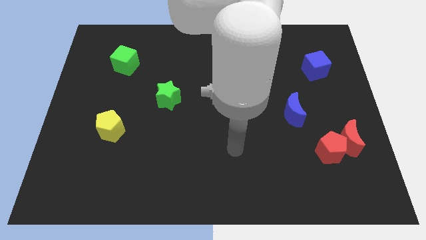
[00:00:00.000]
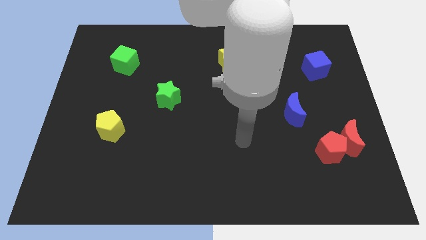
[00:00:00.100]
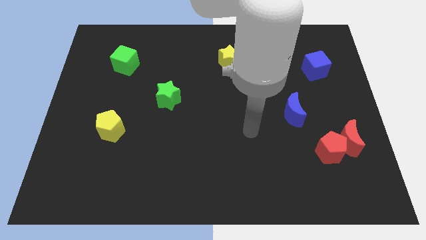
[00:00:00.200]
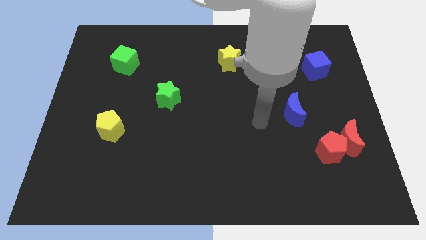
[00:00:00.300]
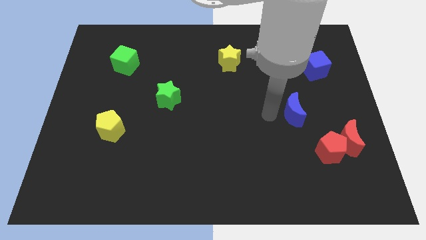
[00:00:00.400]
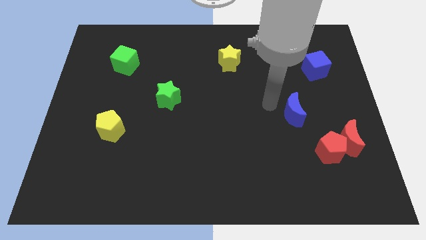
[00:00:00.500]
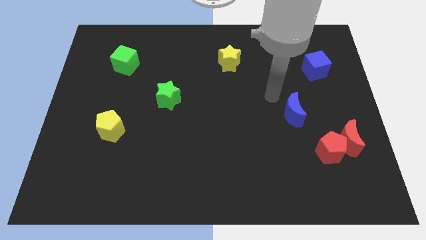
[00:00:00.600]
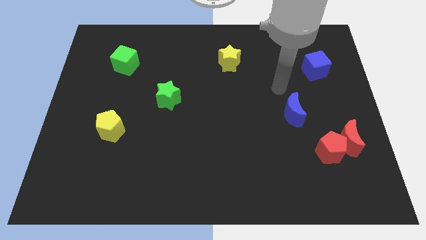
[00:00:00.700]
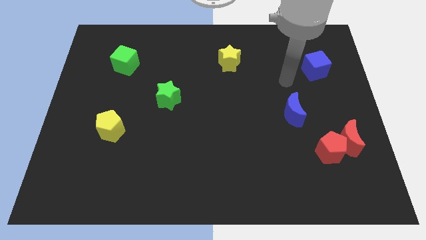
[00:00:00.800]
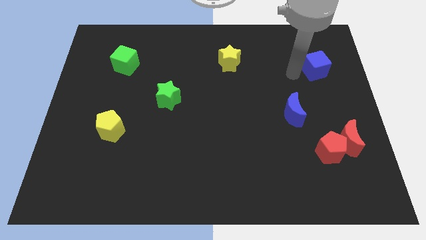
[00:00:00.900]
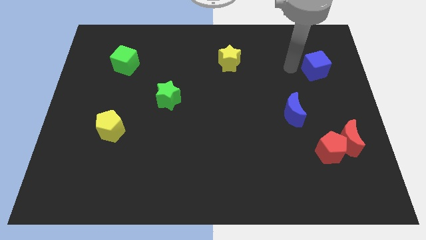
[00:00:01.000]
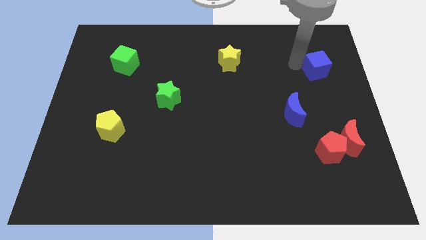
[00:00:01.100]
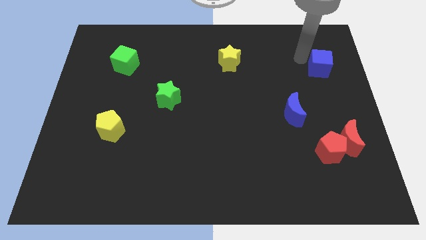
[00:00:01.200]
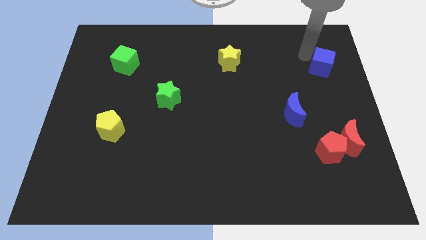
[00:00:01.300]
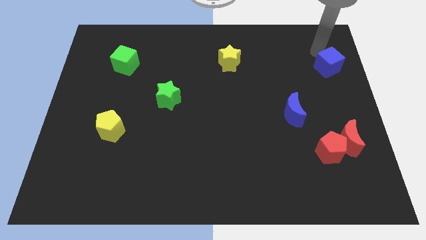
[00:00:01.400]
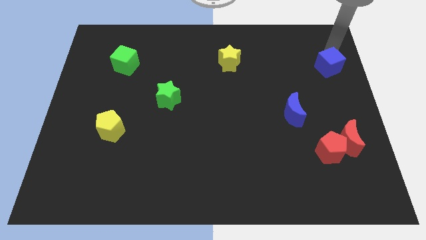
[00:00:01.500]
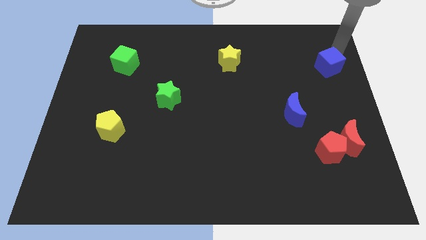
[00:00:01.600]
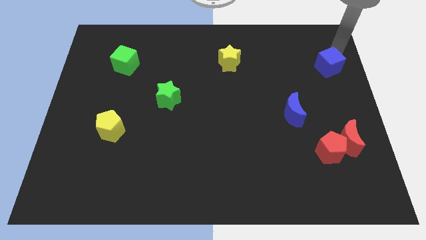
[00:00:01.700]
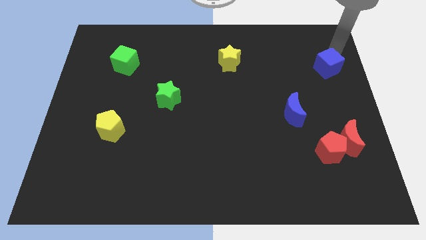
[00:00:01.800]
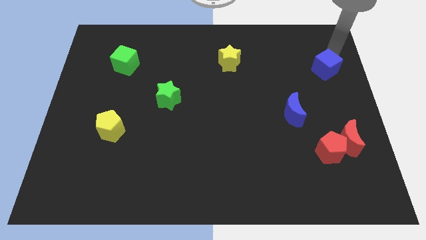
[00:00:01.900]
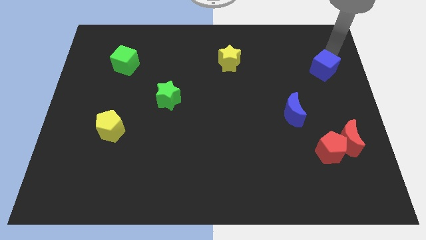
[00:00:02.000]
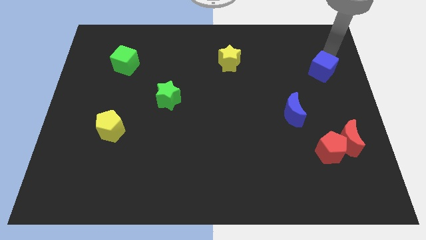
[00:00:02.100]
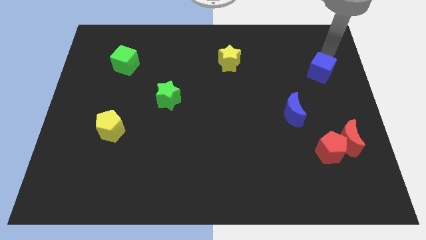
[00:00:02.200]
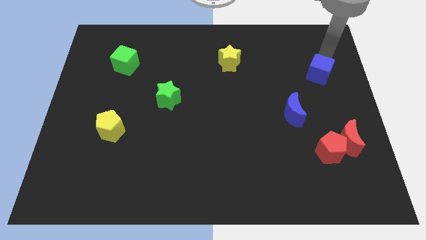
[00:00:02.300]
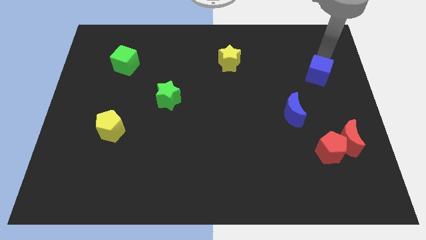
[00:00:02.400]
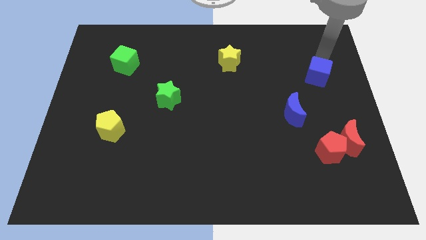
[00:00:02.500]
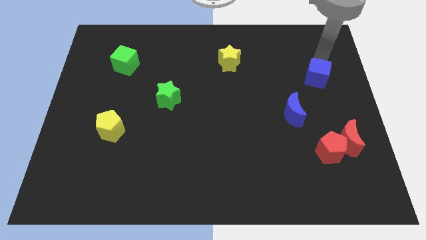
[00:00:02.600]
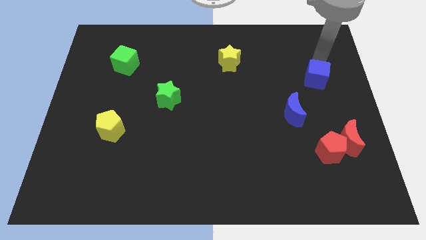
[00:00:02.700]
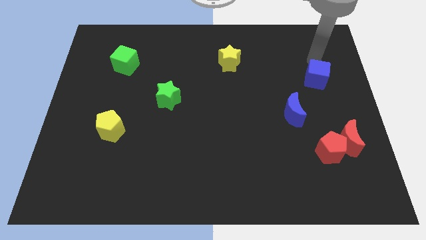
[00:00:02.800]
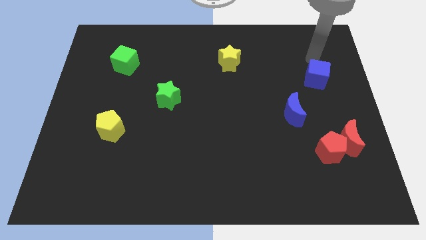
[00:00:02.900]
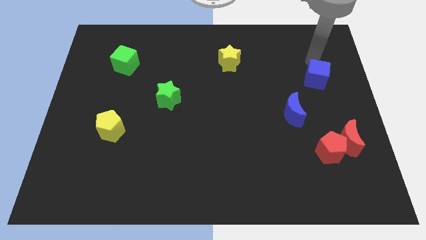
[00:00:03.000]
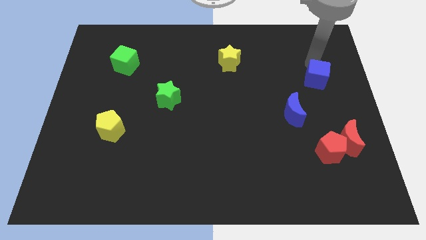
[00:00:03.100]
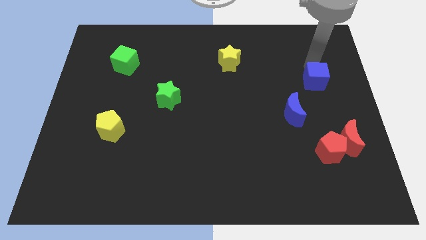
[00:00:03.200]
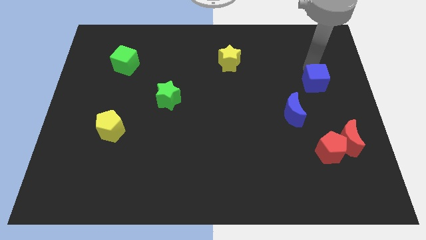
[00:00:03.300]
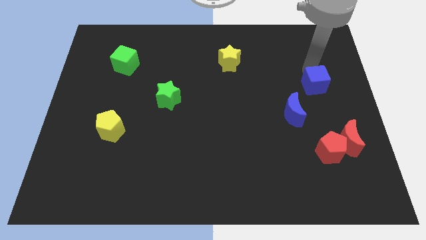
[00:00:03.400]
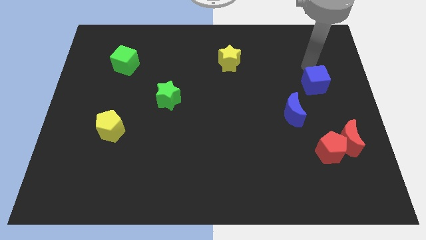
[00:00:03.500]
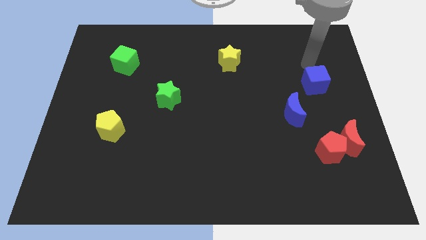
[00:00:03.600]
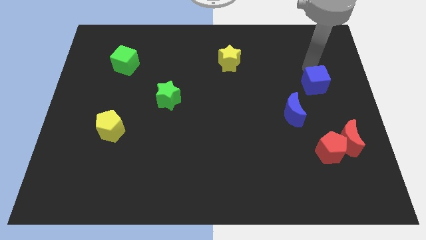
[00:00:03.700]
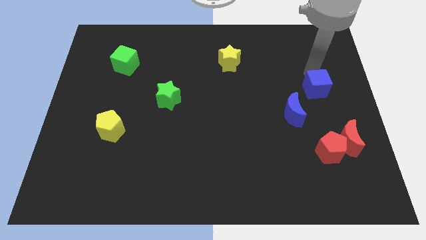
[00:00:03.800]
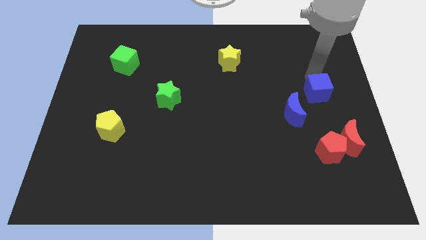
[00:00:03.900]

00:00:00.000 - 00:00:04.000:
move the blue cube a bit downwards

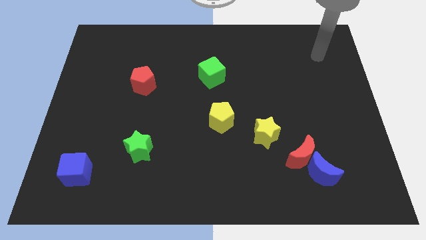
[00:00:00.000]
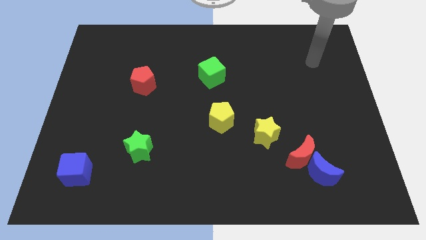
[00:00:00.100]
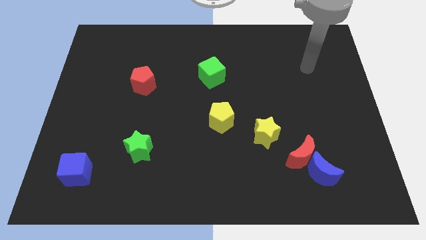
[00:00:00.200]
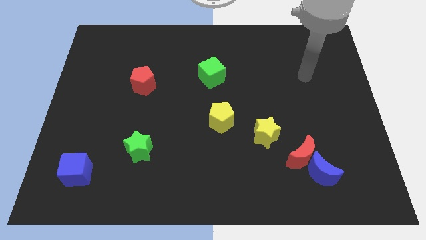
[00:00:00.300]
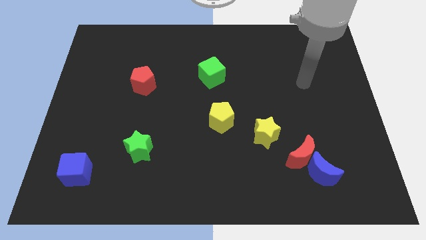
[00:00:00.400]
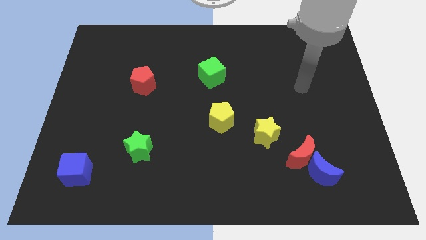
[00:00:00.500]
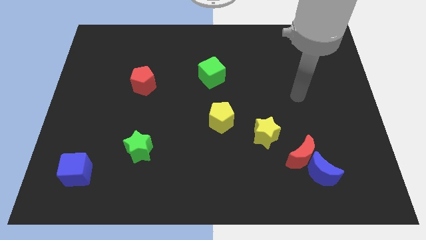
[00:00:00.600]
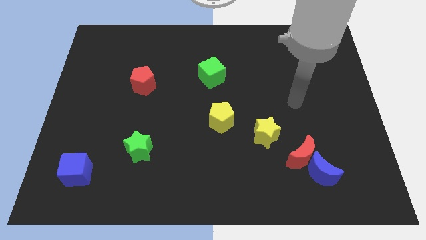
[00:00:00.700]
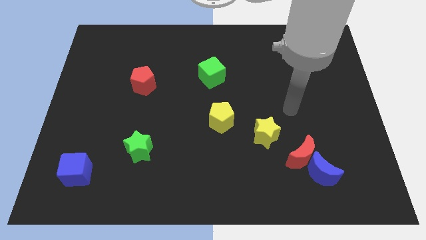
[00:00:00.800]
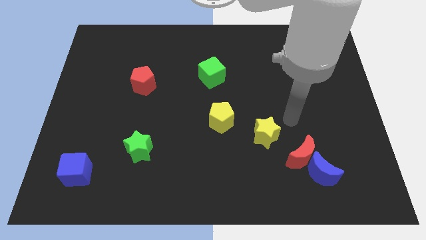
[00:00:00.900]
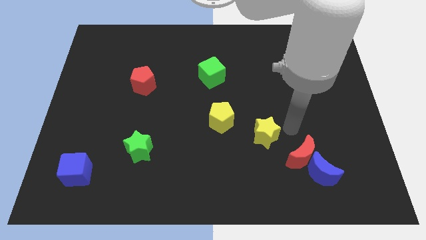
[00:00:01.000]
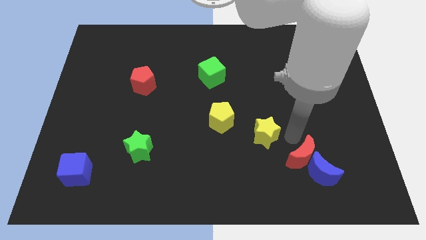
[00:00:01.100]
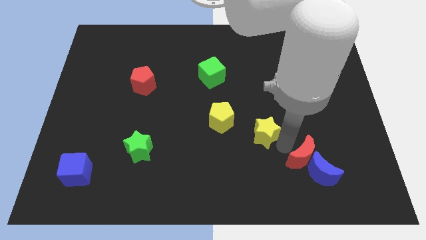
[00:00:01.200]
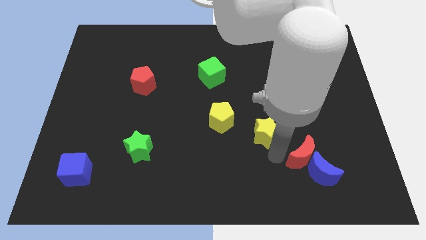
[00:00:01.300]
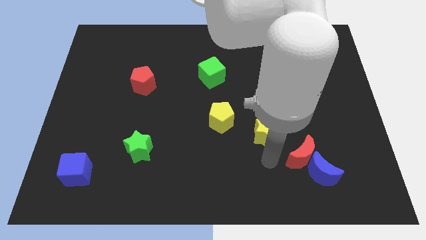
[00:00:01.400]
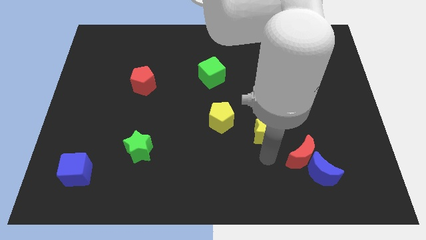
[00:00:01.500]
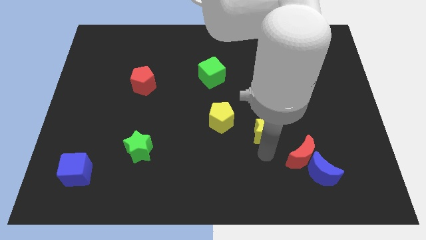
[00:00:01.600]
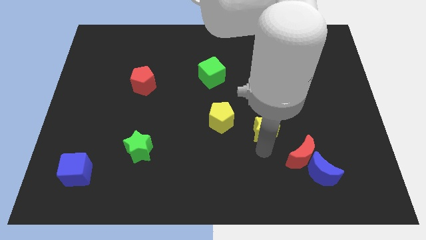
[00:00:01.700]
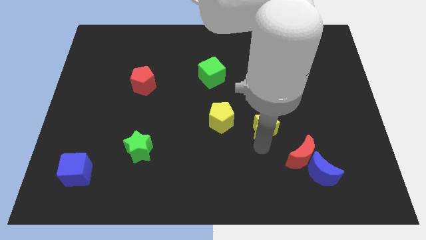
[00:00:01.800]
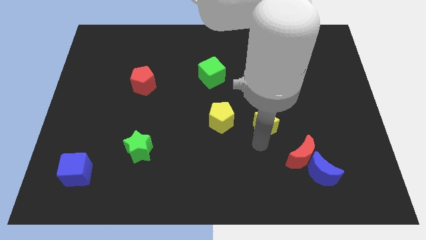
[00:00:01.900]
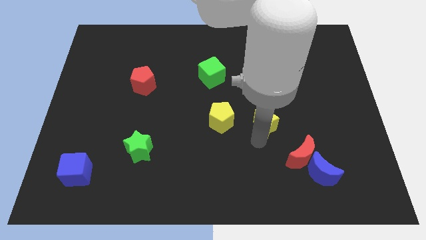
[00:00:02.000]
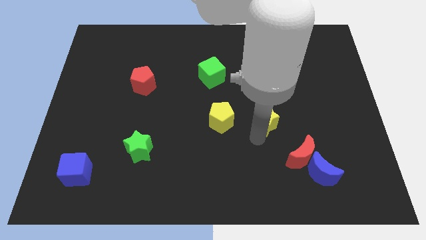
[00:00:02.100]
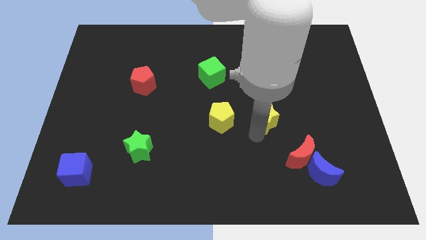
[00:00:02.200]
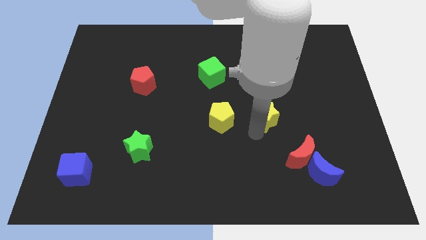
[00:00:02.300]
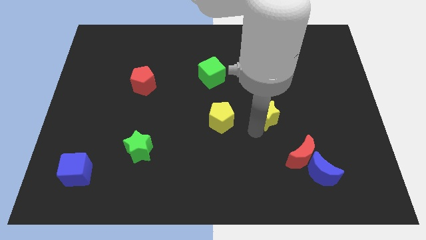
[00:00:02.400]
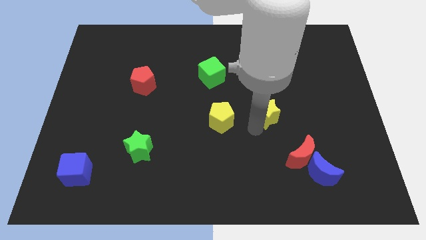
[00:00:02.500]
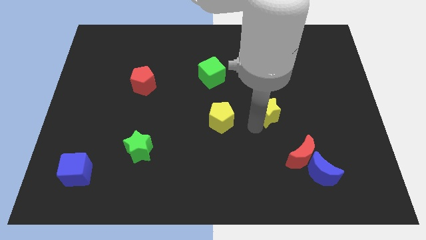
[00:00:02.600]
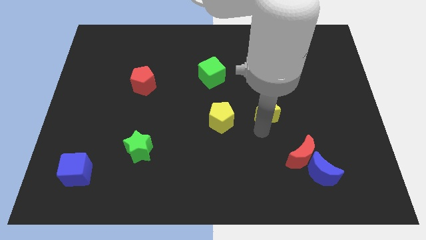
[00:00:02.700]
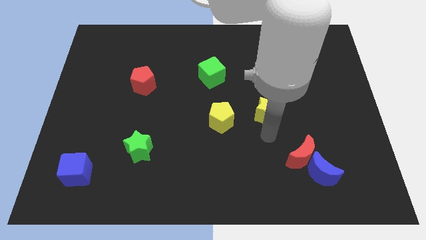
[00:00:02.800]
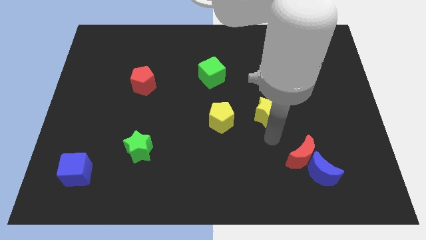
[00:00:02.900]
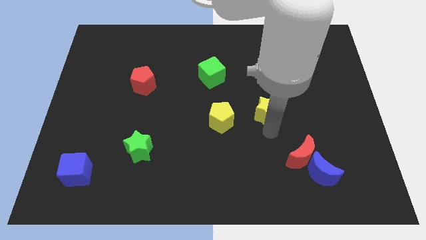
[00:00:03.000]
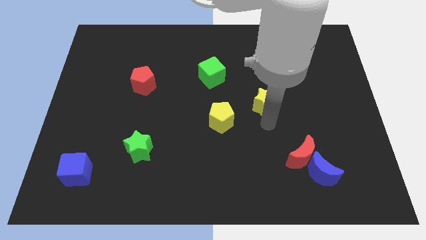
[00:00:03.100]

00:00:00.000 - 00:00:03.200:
slightly push the yellow star up

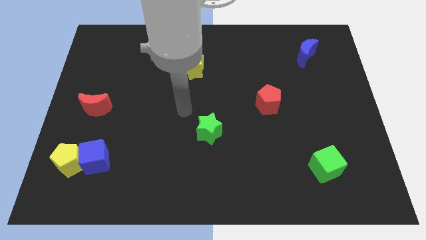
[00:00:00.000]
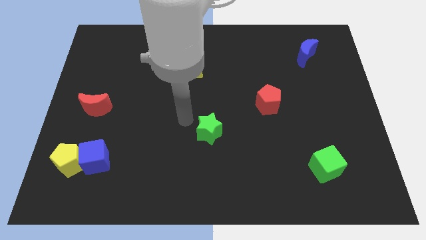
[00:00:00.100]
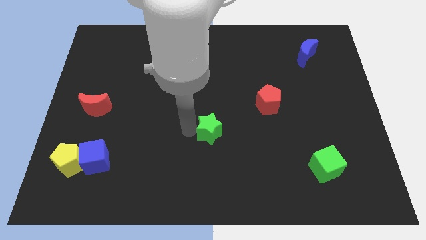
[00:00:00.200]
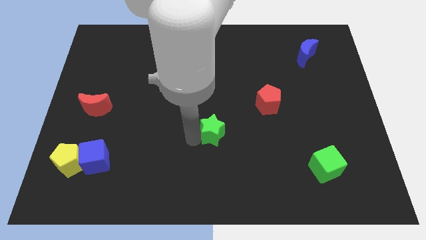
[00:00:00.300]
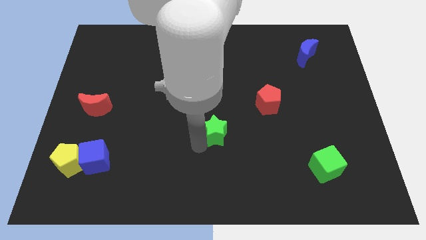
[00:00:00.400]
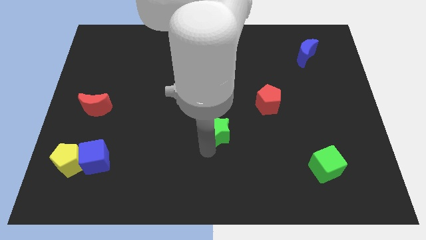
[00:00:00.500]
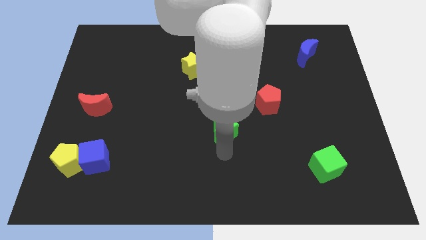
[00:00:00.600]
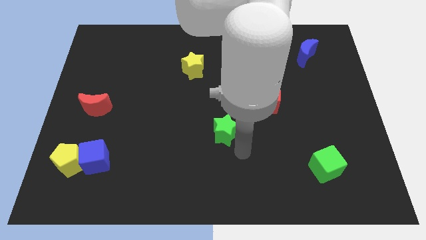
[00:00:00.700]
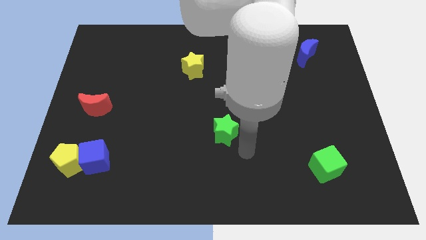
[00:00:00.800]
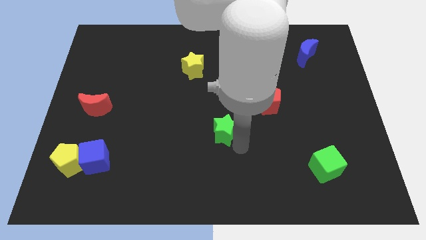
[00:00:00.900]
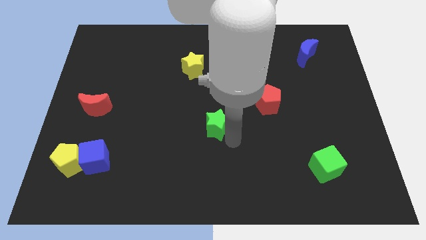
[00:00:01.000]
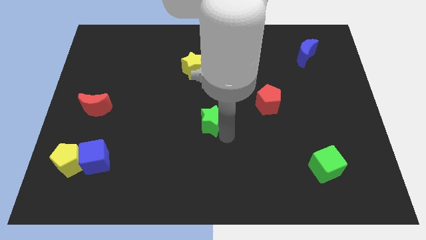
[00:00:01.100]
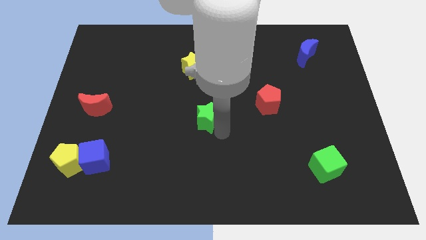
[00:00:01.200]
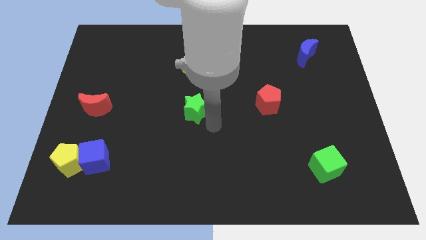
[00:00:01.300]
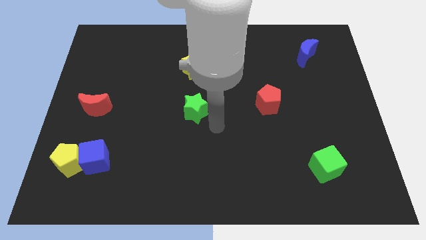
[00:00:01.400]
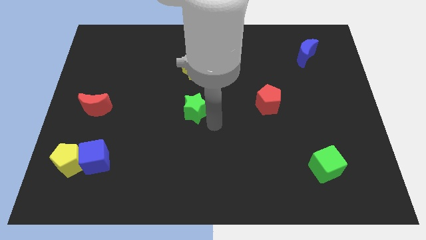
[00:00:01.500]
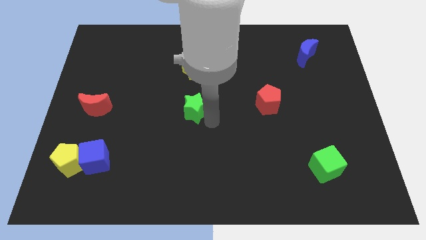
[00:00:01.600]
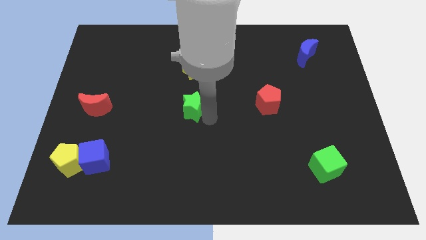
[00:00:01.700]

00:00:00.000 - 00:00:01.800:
slightly push the green star up and to the left
